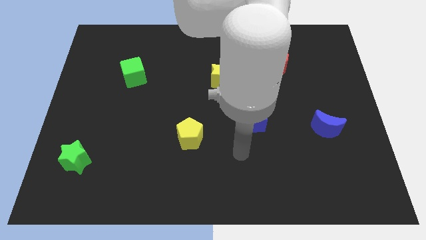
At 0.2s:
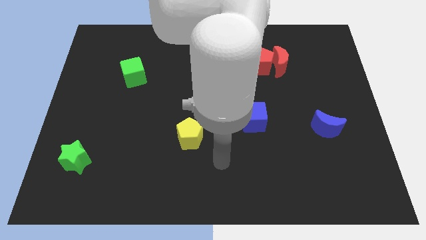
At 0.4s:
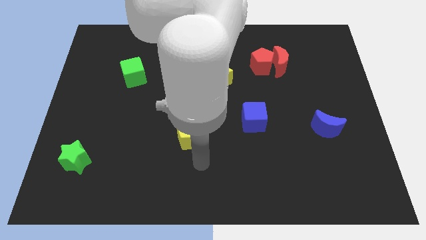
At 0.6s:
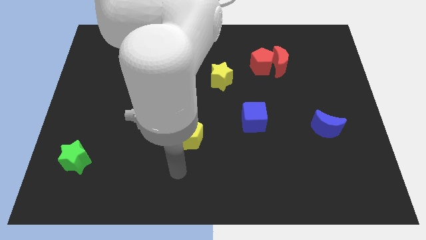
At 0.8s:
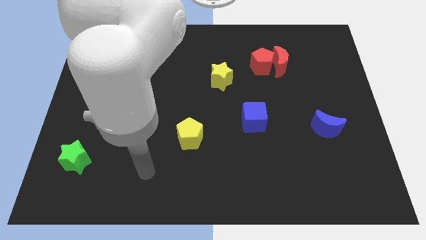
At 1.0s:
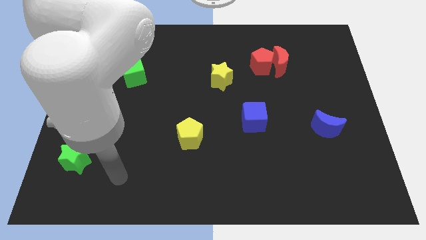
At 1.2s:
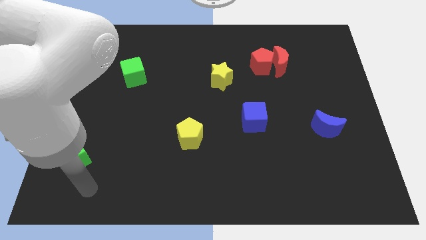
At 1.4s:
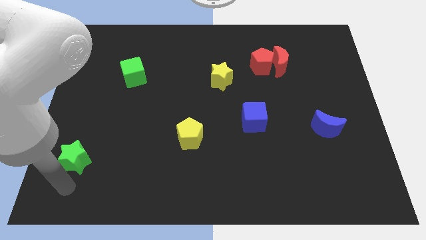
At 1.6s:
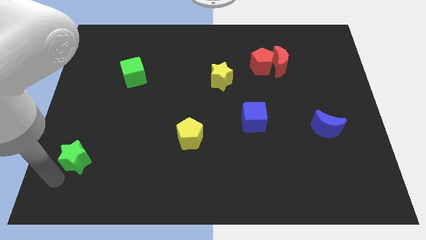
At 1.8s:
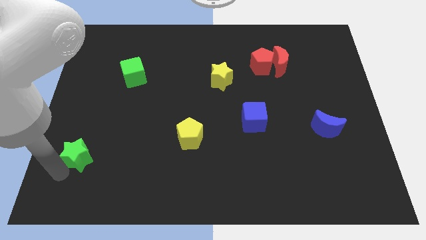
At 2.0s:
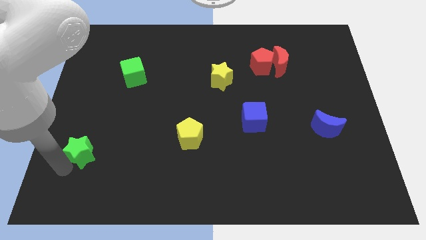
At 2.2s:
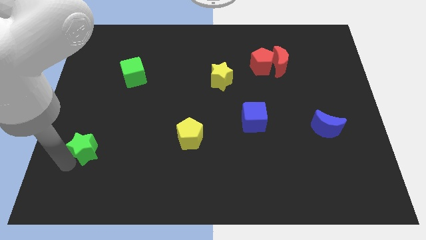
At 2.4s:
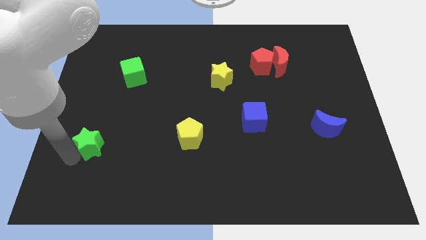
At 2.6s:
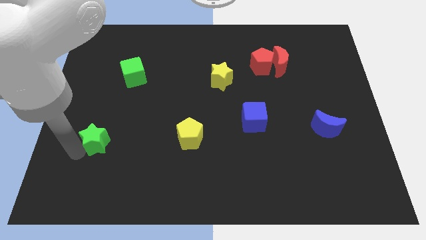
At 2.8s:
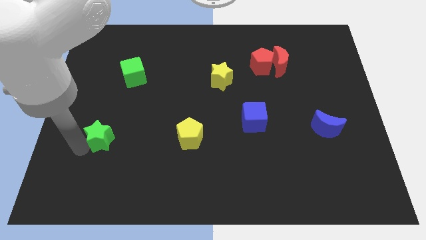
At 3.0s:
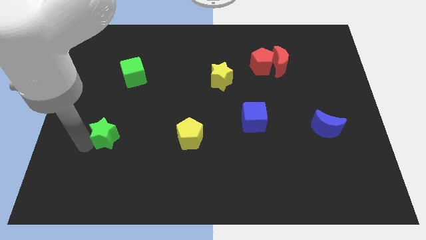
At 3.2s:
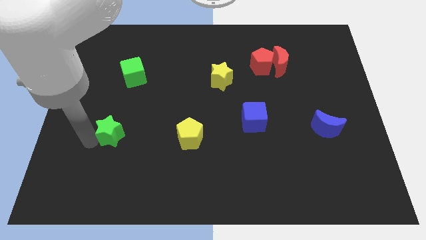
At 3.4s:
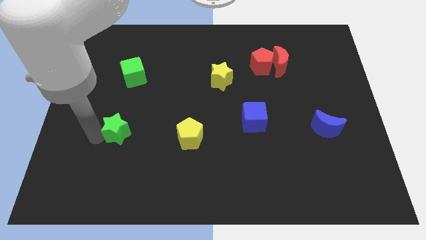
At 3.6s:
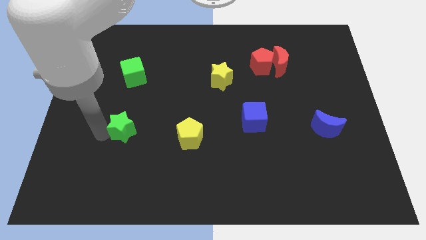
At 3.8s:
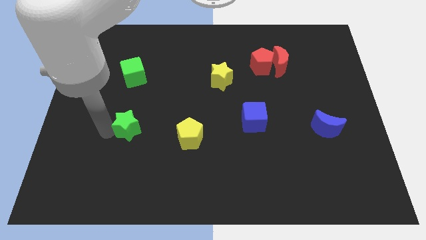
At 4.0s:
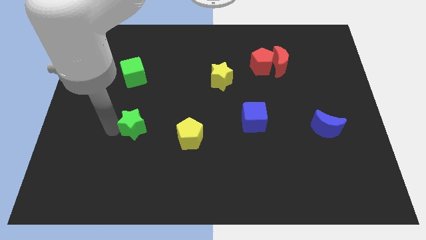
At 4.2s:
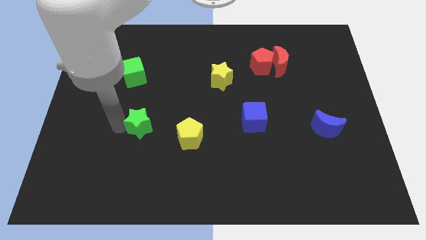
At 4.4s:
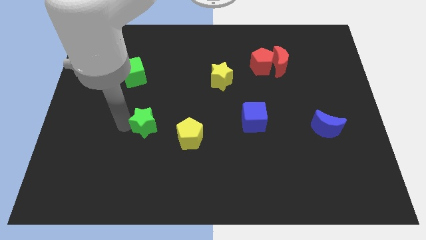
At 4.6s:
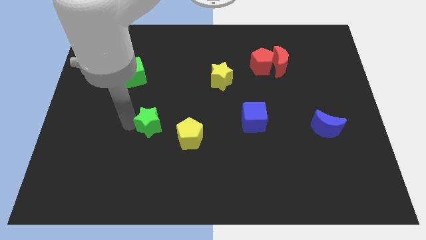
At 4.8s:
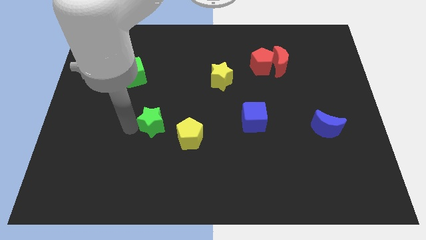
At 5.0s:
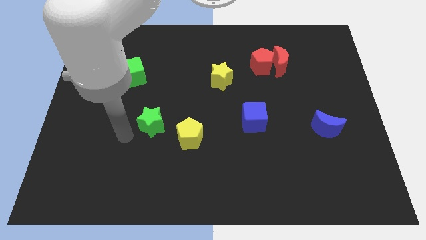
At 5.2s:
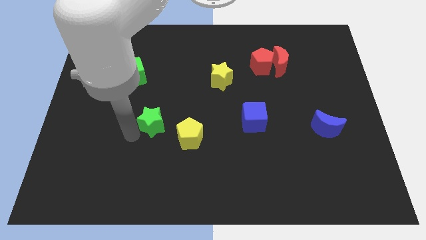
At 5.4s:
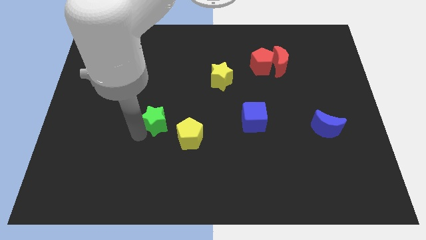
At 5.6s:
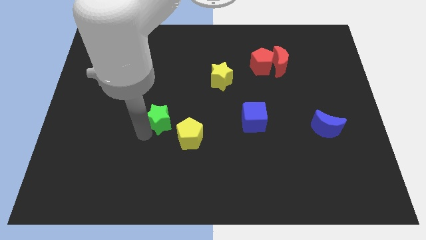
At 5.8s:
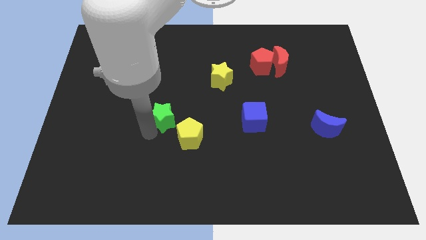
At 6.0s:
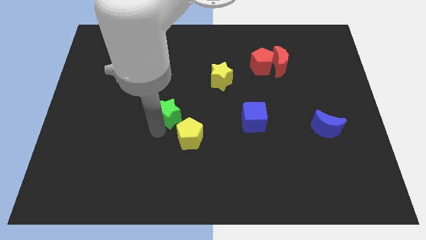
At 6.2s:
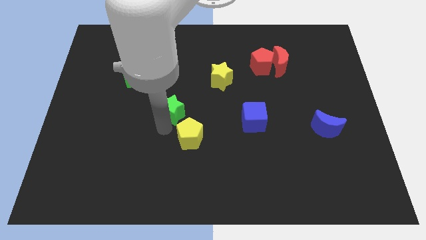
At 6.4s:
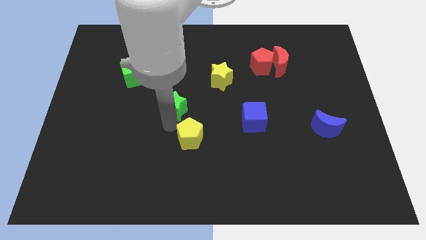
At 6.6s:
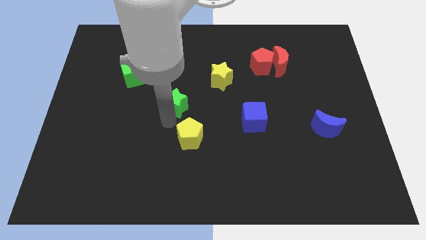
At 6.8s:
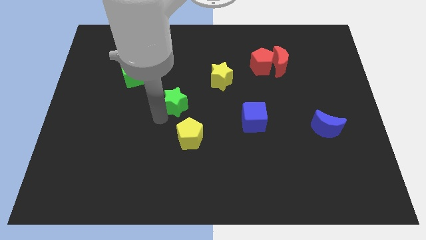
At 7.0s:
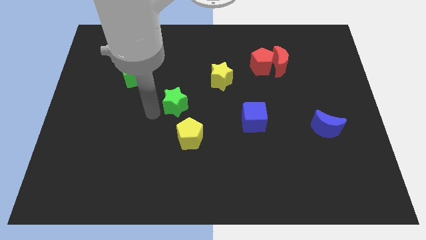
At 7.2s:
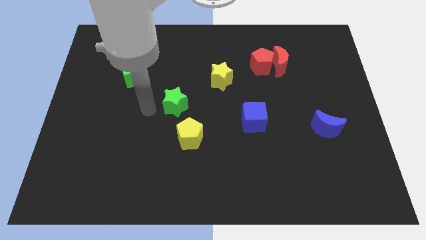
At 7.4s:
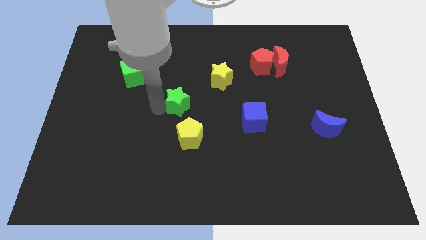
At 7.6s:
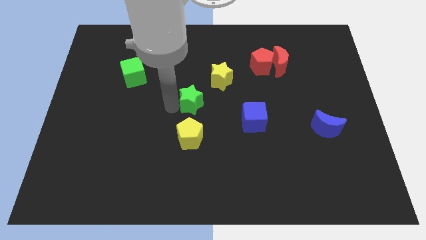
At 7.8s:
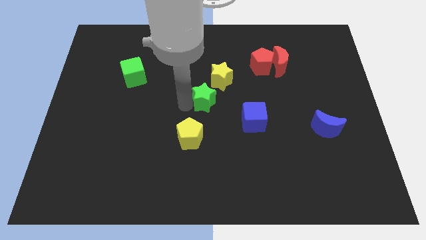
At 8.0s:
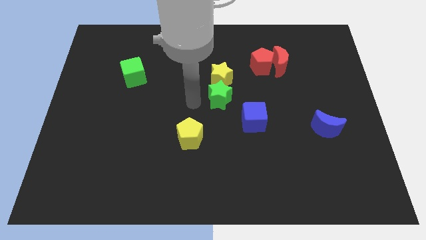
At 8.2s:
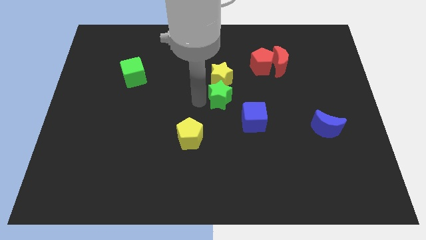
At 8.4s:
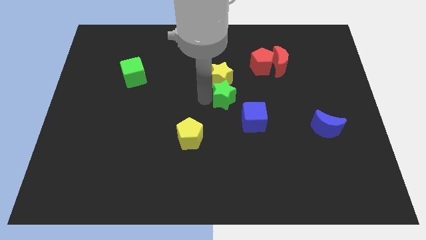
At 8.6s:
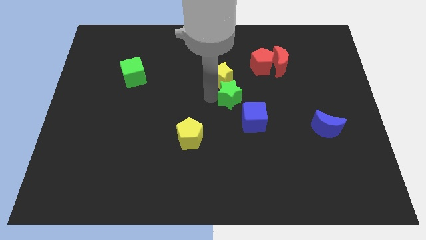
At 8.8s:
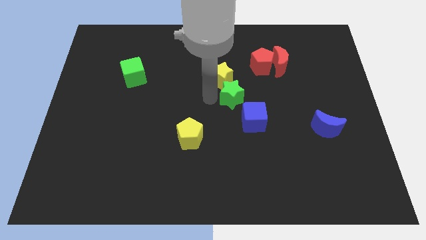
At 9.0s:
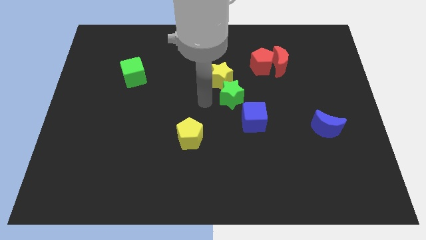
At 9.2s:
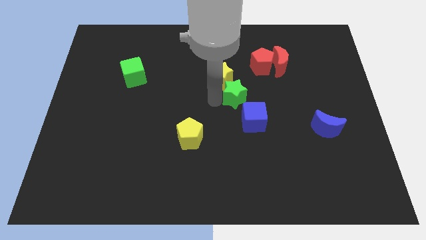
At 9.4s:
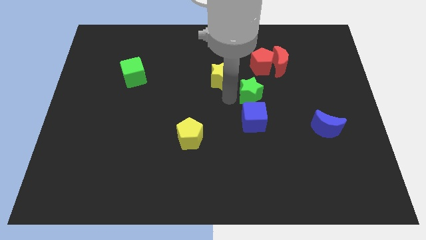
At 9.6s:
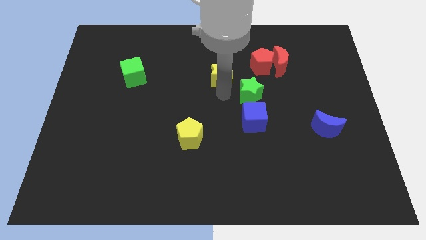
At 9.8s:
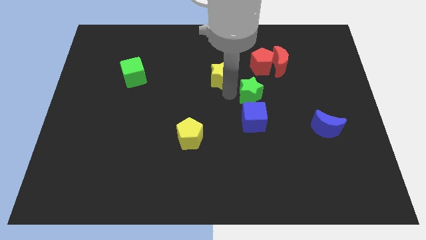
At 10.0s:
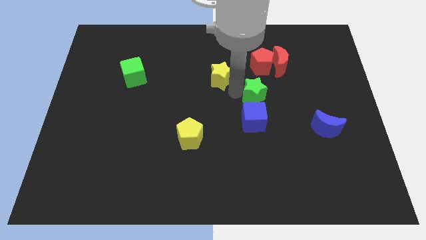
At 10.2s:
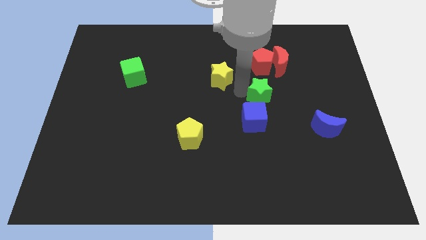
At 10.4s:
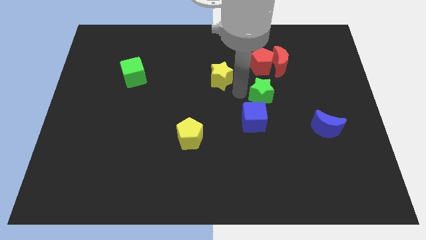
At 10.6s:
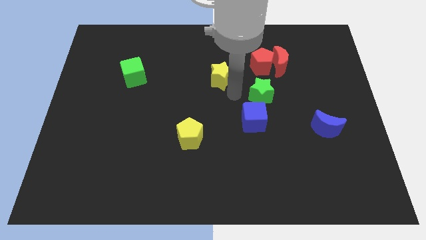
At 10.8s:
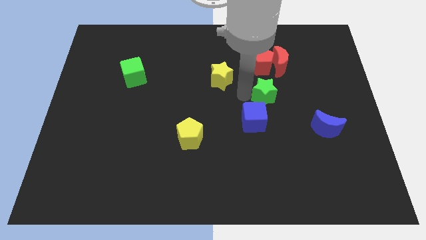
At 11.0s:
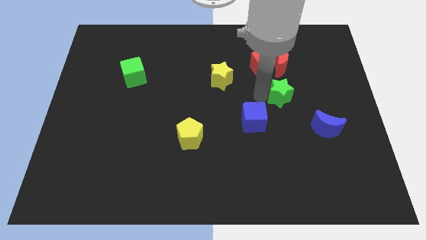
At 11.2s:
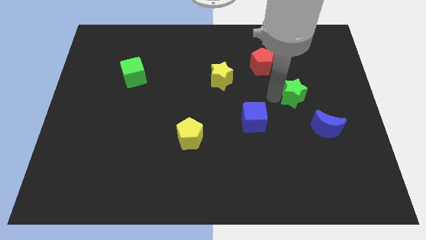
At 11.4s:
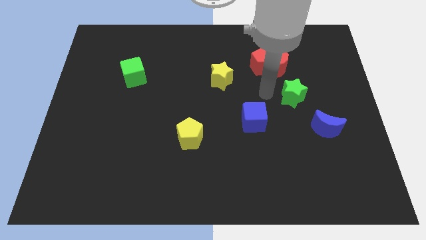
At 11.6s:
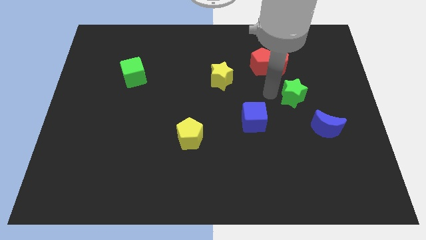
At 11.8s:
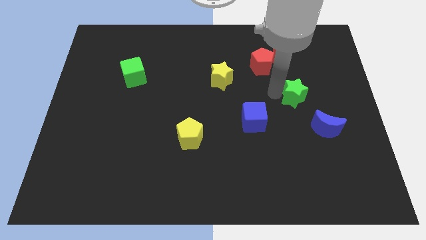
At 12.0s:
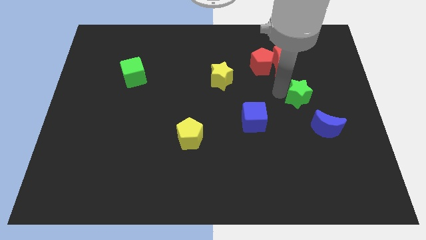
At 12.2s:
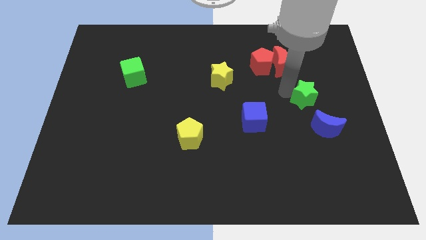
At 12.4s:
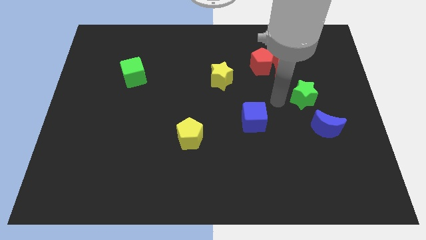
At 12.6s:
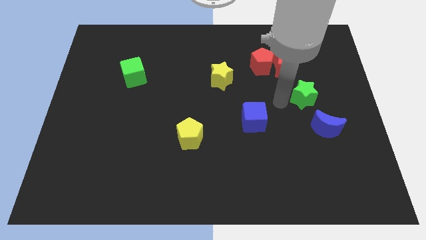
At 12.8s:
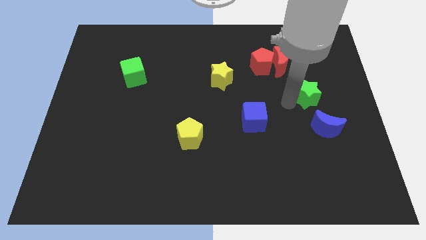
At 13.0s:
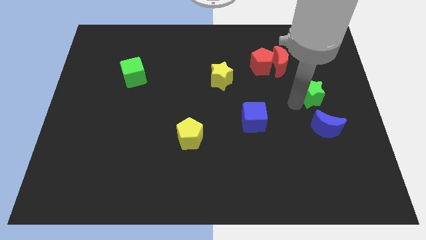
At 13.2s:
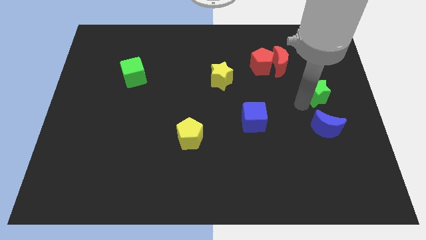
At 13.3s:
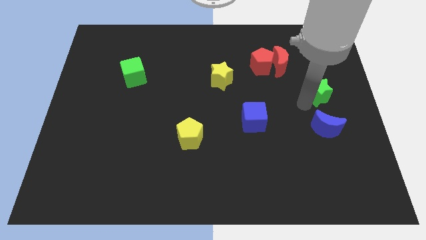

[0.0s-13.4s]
slide the green star to the center right
